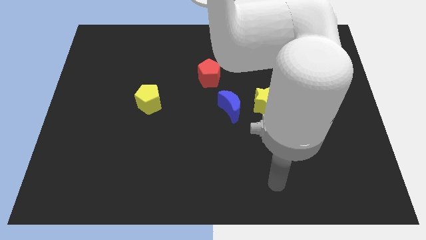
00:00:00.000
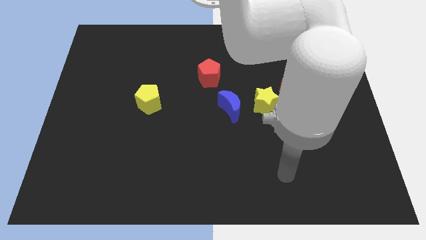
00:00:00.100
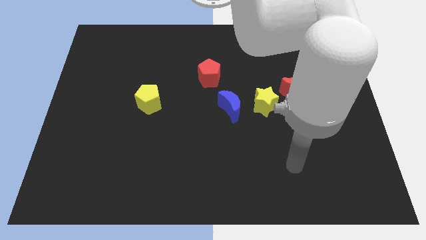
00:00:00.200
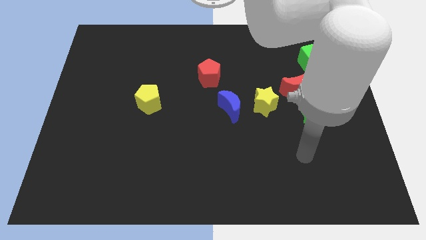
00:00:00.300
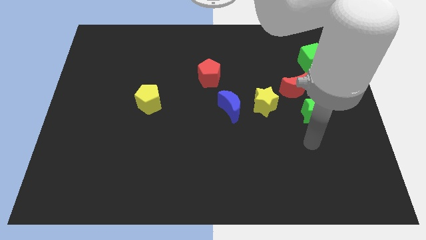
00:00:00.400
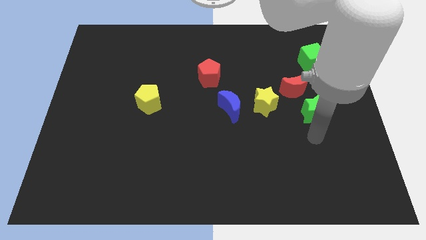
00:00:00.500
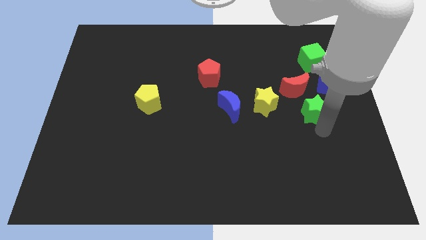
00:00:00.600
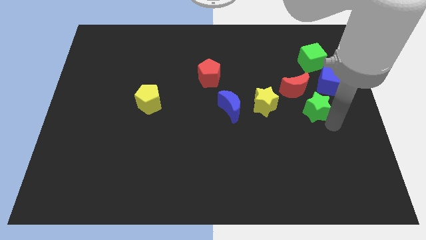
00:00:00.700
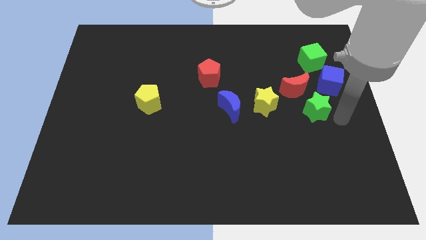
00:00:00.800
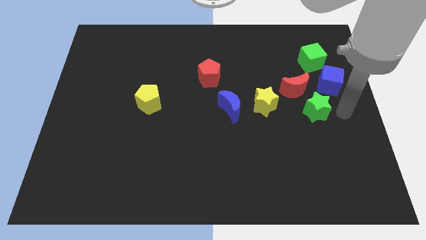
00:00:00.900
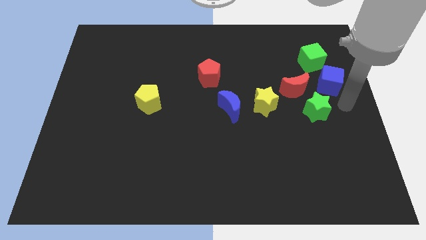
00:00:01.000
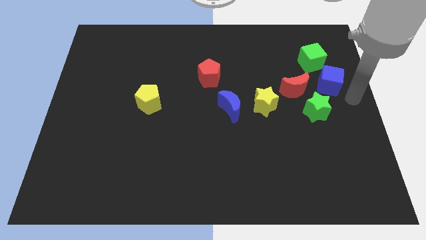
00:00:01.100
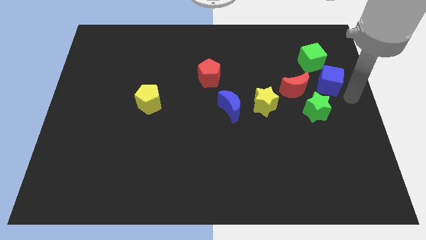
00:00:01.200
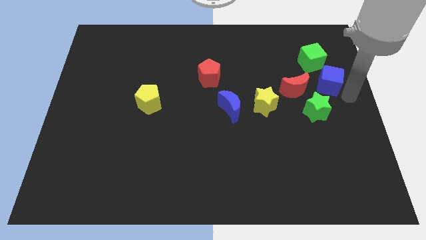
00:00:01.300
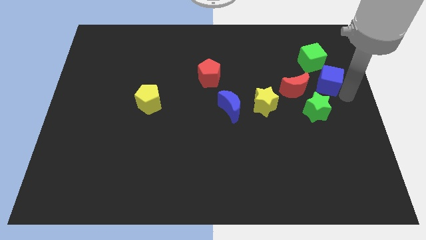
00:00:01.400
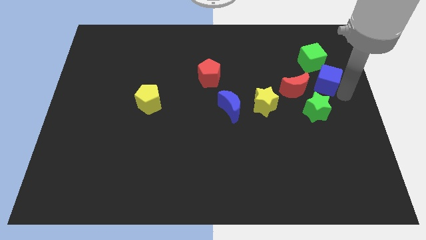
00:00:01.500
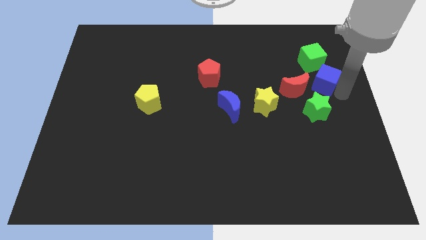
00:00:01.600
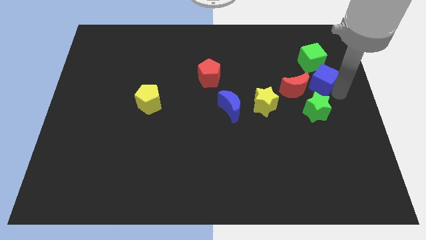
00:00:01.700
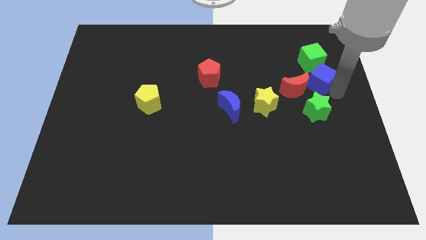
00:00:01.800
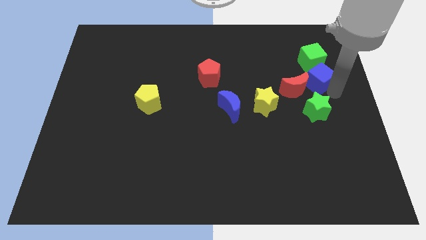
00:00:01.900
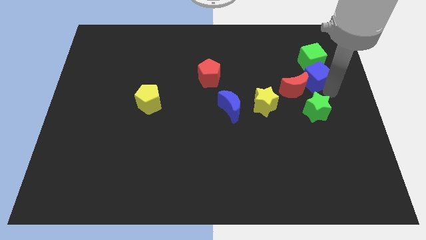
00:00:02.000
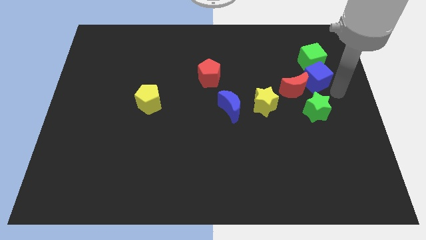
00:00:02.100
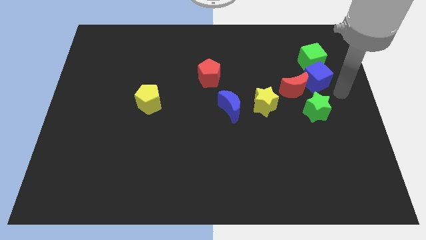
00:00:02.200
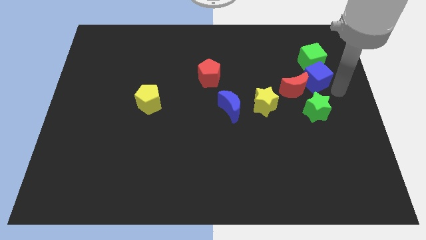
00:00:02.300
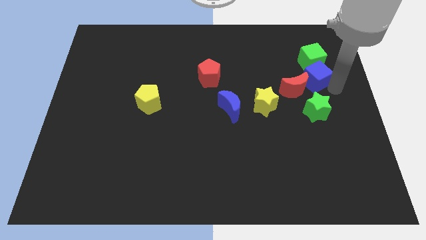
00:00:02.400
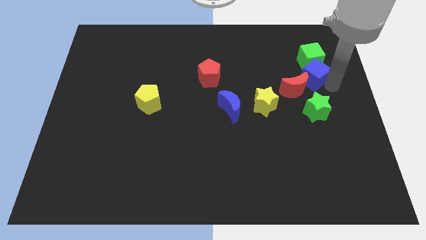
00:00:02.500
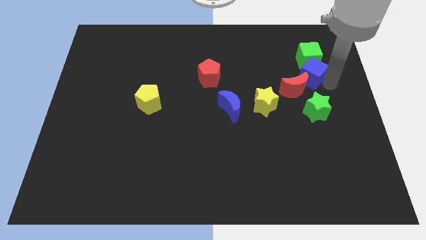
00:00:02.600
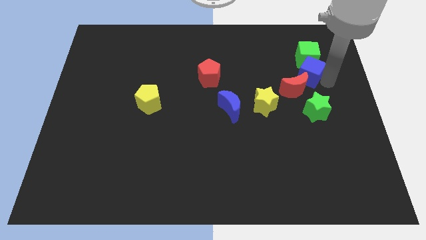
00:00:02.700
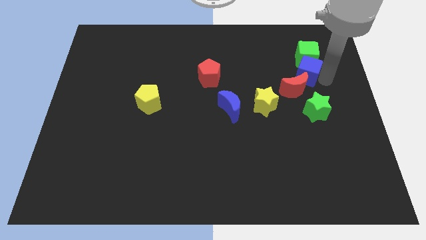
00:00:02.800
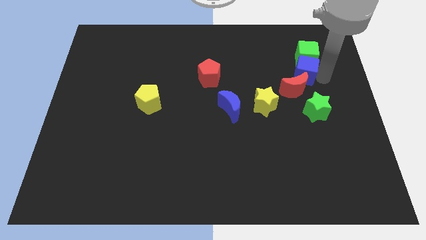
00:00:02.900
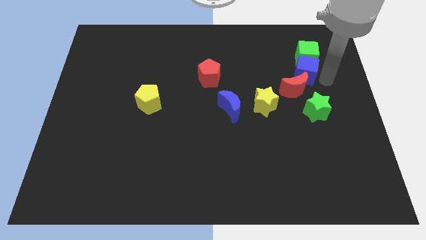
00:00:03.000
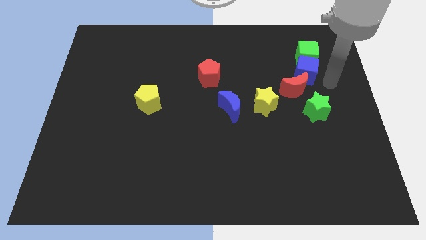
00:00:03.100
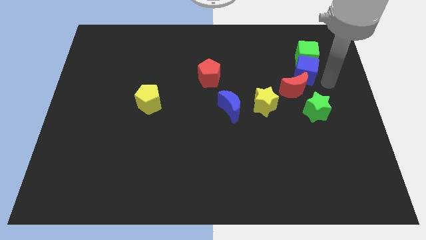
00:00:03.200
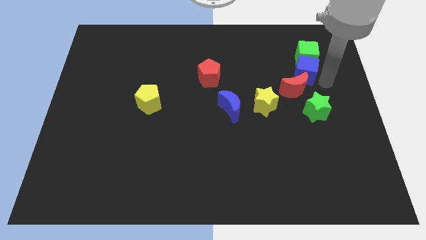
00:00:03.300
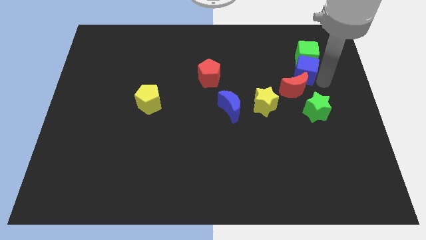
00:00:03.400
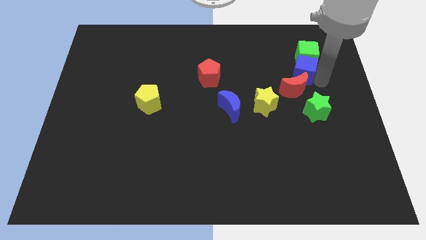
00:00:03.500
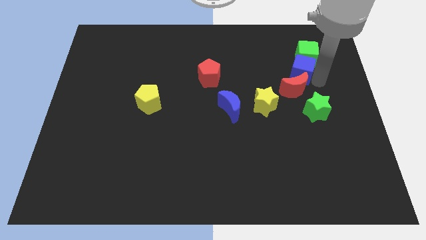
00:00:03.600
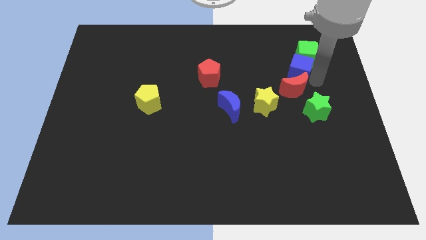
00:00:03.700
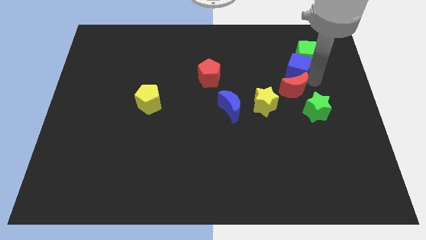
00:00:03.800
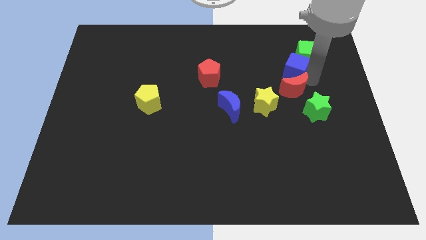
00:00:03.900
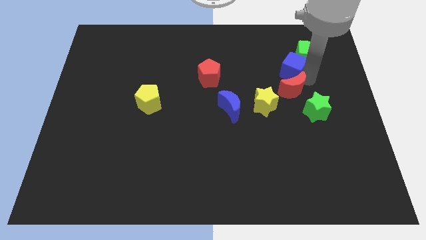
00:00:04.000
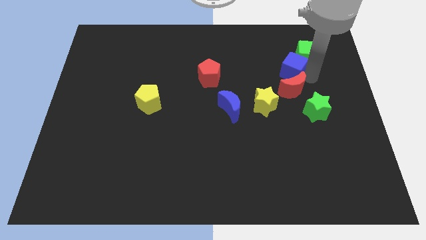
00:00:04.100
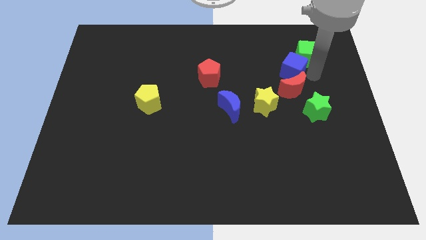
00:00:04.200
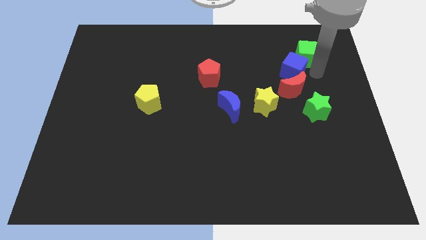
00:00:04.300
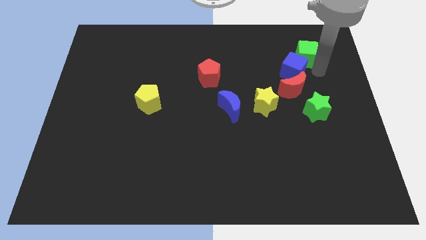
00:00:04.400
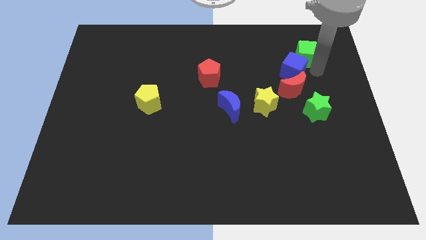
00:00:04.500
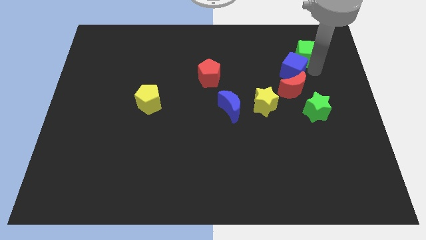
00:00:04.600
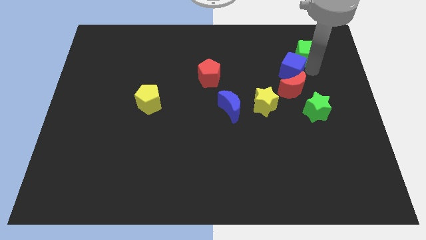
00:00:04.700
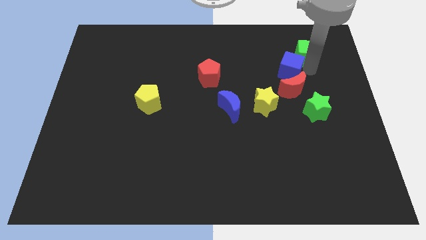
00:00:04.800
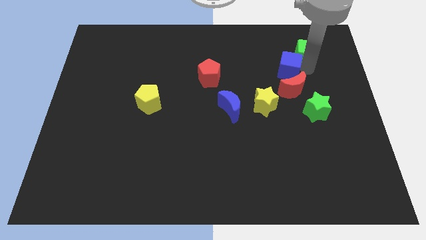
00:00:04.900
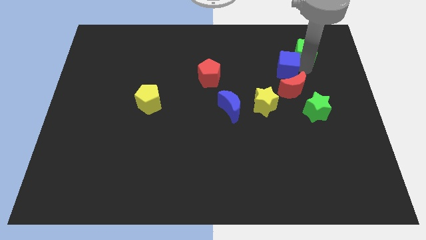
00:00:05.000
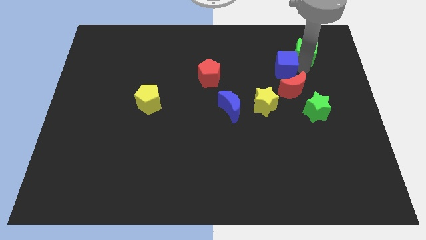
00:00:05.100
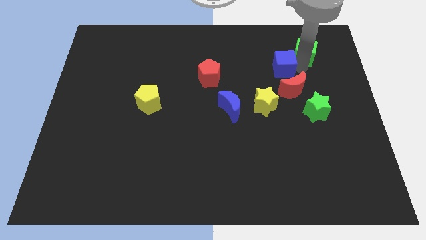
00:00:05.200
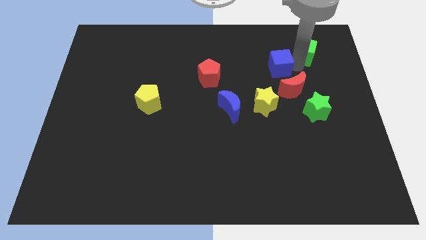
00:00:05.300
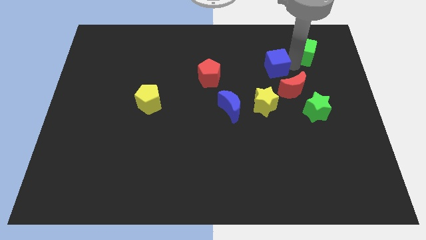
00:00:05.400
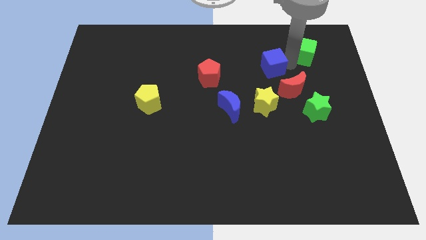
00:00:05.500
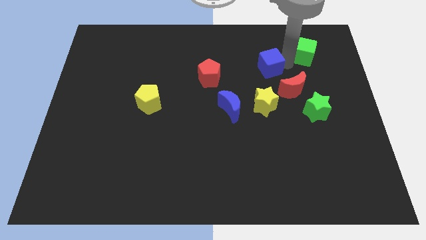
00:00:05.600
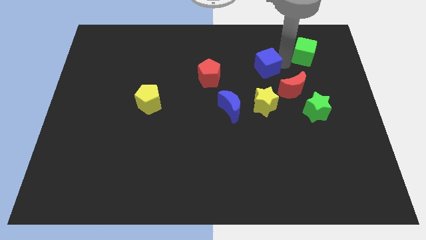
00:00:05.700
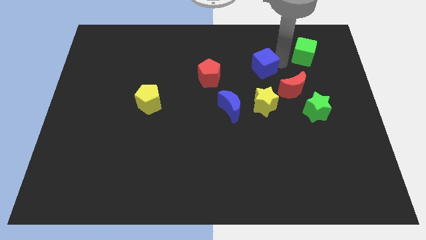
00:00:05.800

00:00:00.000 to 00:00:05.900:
move the blue cube to the right side of the red pentagon

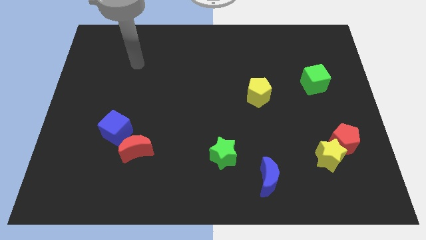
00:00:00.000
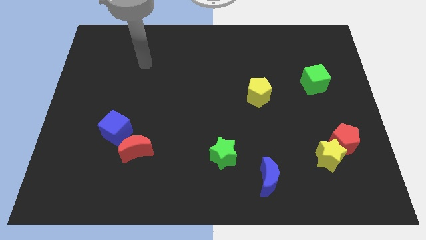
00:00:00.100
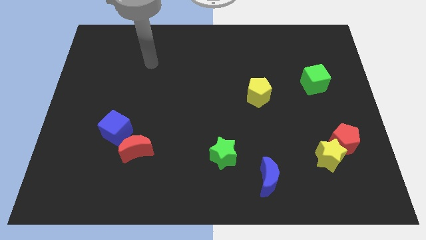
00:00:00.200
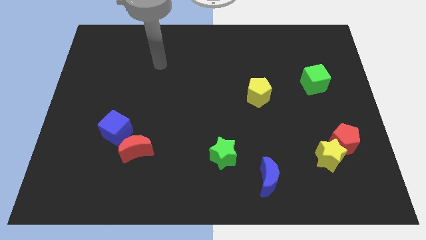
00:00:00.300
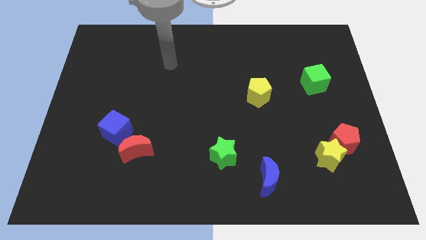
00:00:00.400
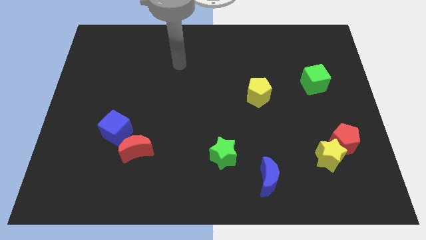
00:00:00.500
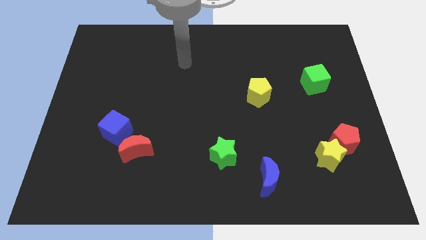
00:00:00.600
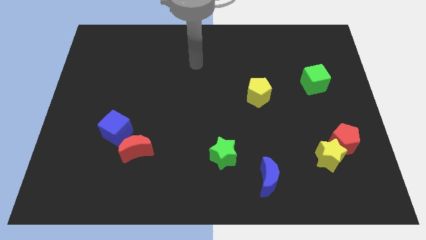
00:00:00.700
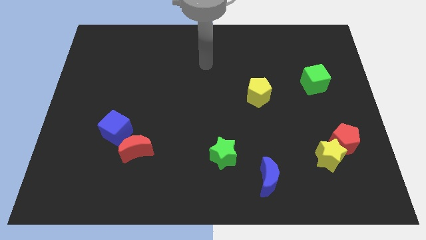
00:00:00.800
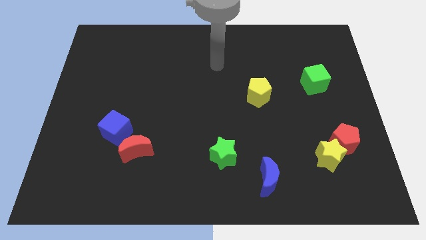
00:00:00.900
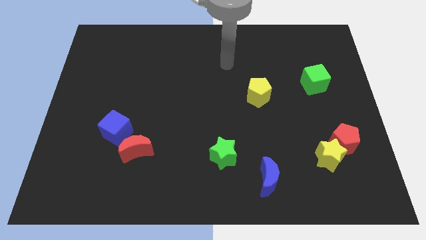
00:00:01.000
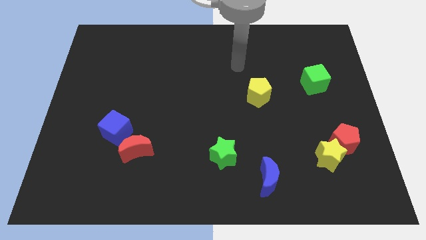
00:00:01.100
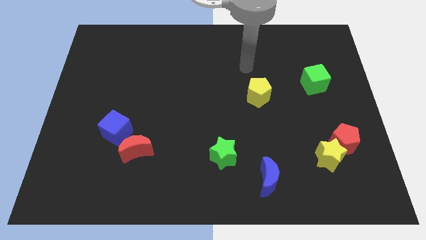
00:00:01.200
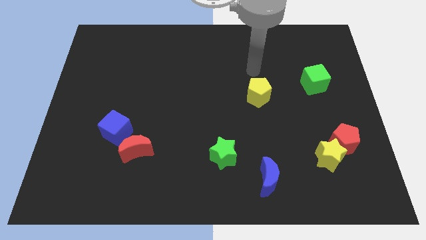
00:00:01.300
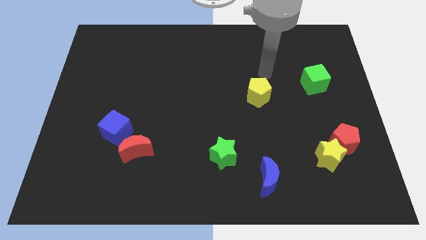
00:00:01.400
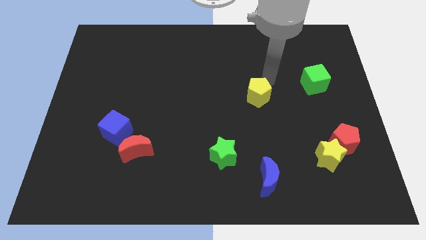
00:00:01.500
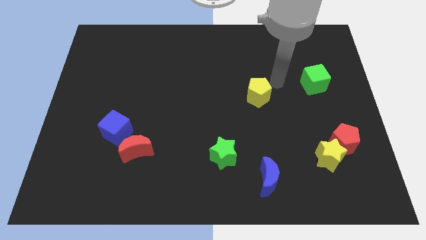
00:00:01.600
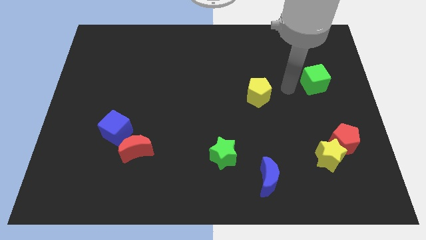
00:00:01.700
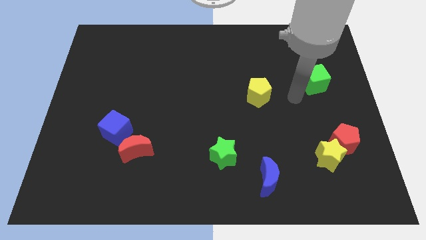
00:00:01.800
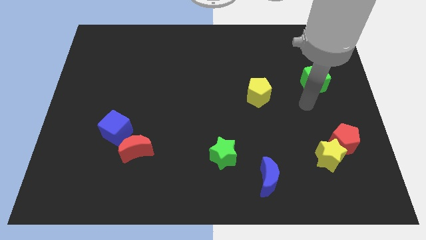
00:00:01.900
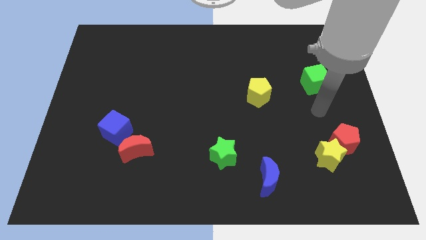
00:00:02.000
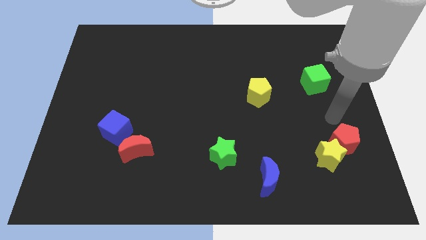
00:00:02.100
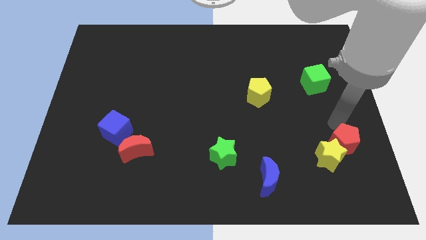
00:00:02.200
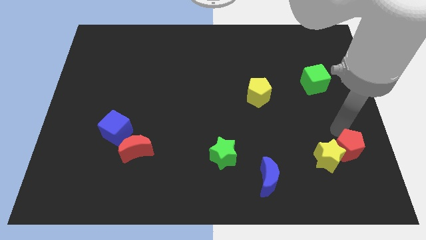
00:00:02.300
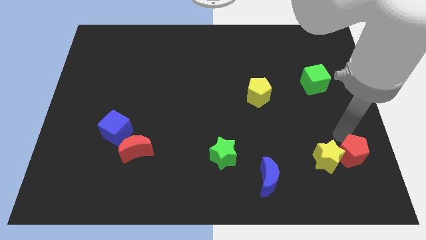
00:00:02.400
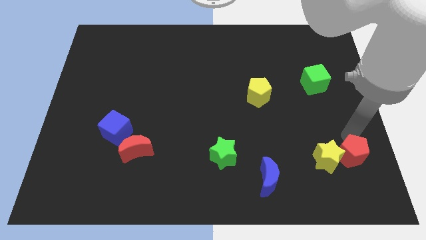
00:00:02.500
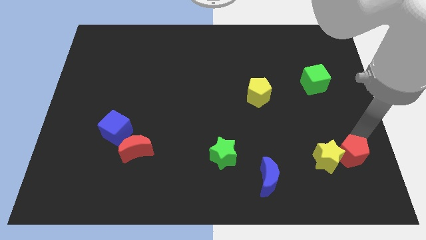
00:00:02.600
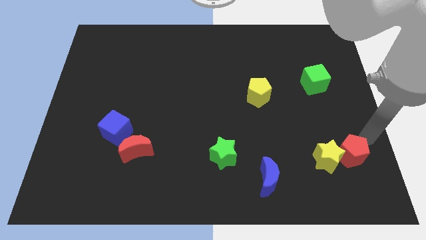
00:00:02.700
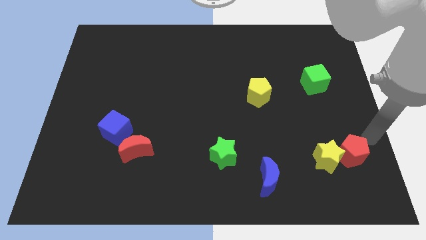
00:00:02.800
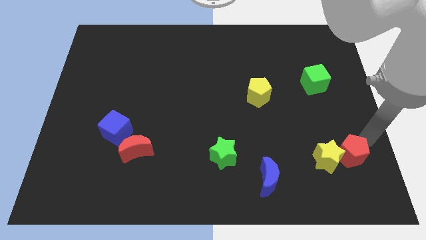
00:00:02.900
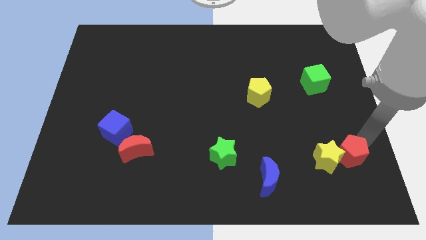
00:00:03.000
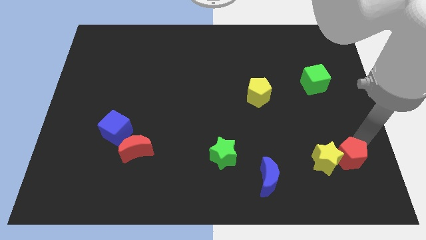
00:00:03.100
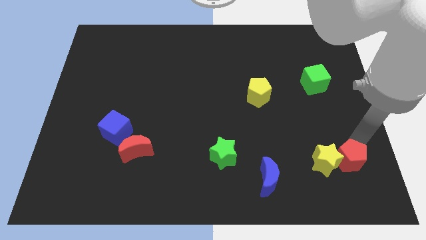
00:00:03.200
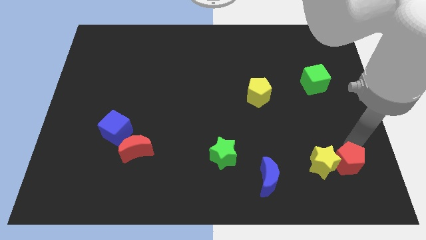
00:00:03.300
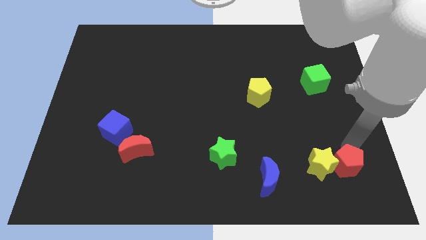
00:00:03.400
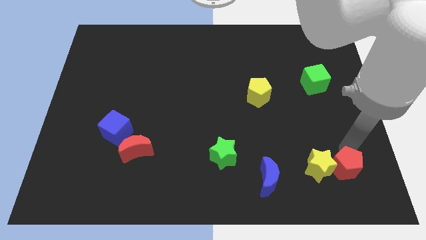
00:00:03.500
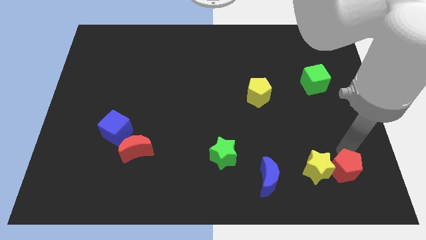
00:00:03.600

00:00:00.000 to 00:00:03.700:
put the red pentagon to the right of the blue moon
